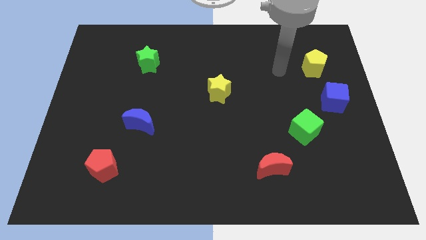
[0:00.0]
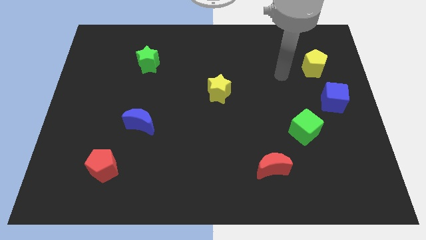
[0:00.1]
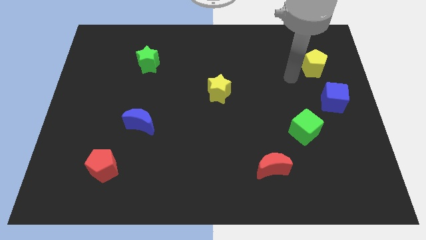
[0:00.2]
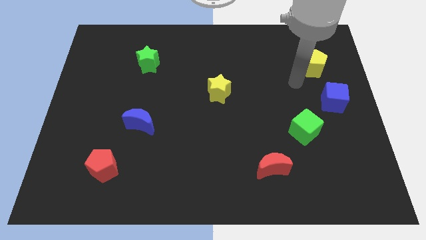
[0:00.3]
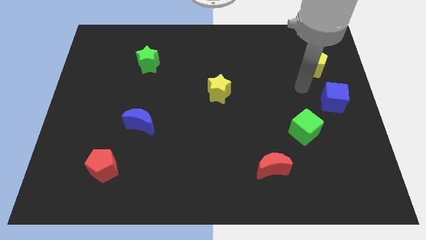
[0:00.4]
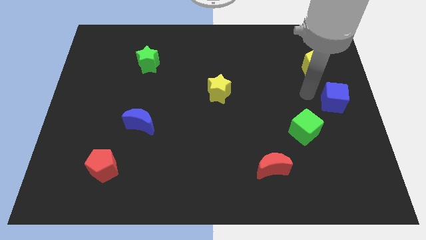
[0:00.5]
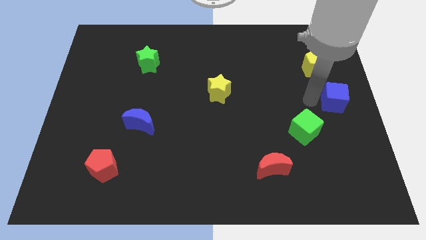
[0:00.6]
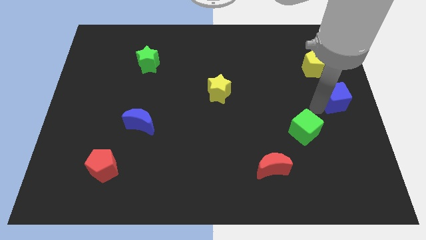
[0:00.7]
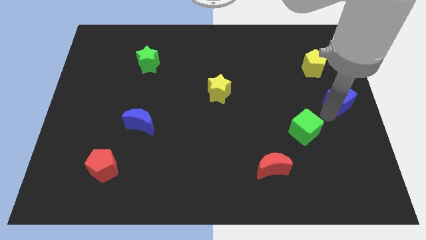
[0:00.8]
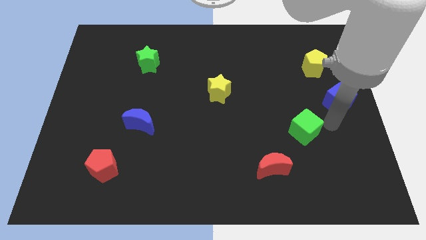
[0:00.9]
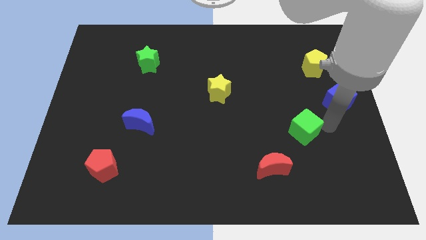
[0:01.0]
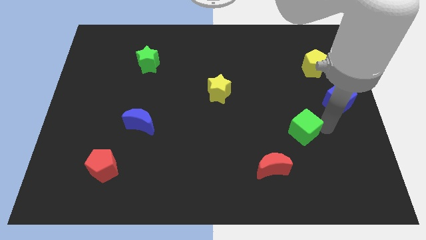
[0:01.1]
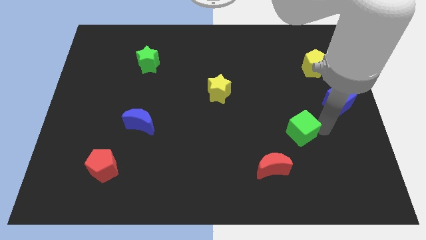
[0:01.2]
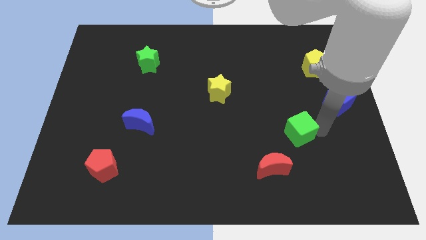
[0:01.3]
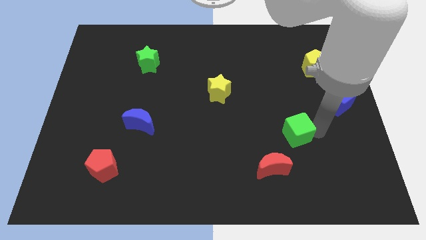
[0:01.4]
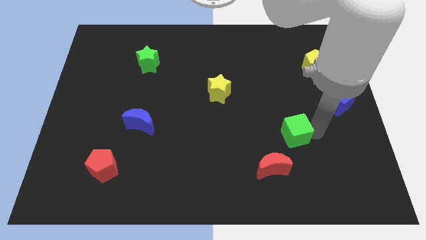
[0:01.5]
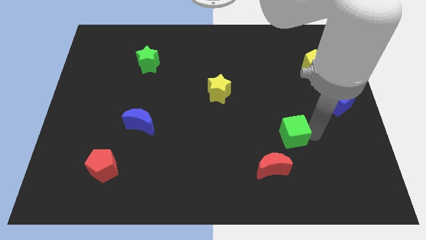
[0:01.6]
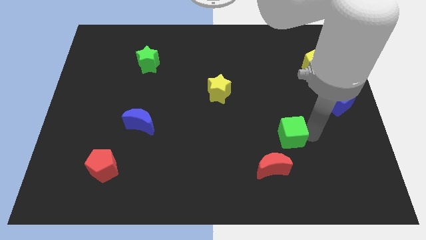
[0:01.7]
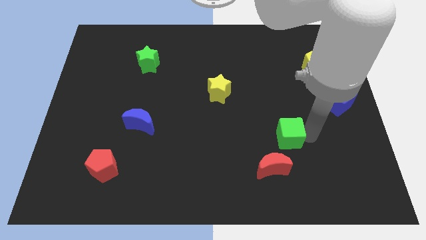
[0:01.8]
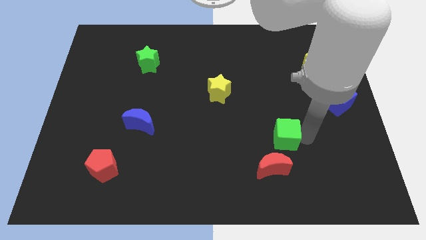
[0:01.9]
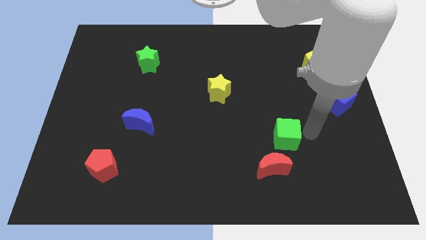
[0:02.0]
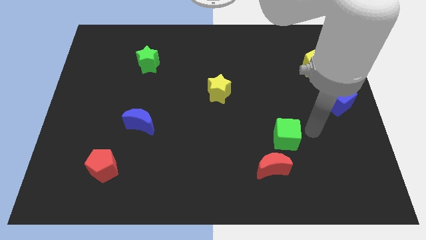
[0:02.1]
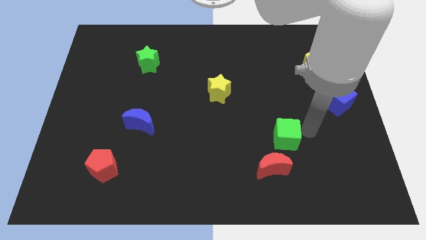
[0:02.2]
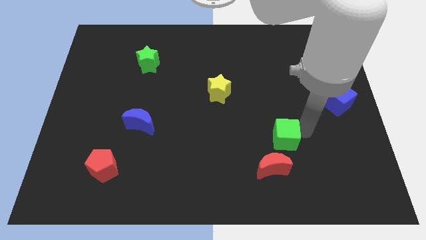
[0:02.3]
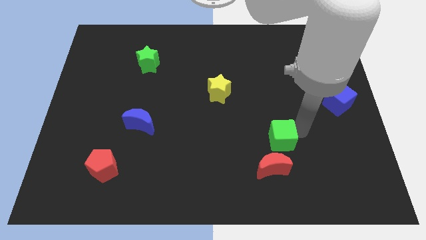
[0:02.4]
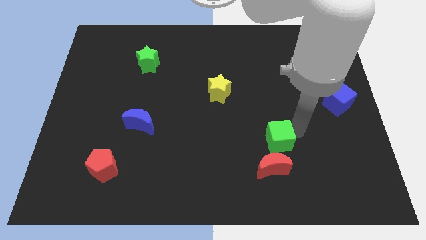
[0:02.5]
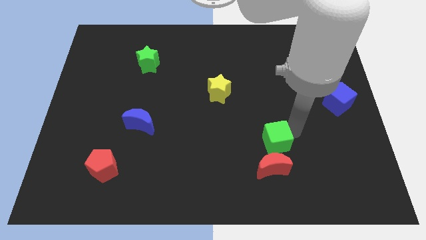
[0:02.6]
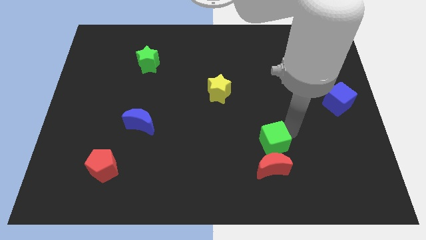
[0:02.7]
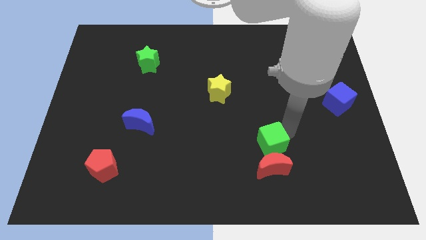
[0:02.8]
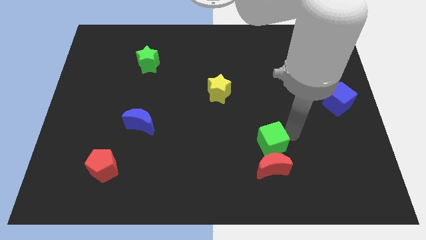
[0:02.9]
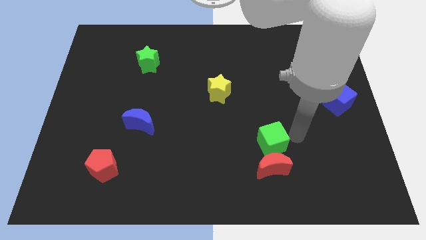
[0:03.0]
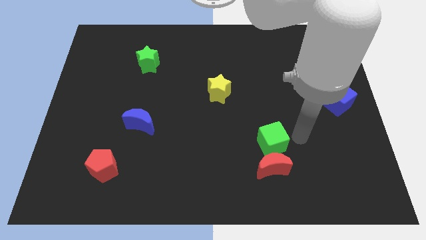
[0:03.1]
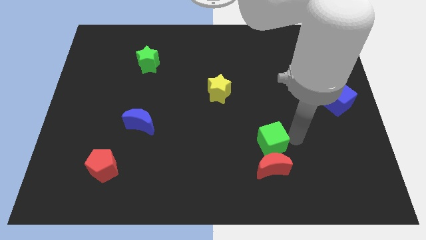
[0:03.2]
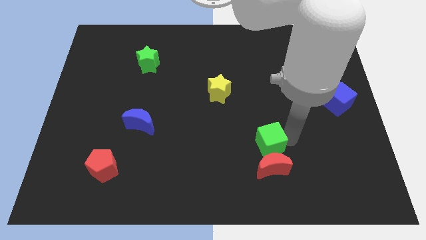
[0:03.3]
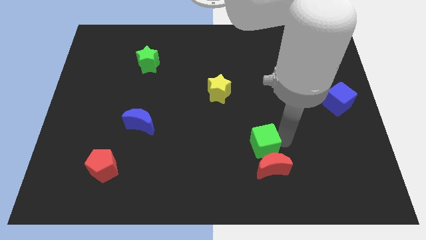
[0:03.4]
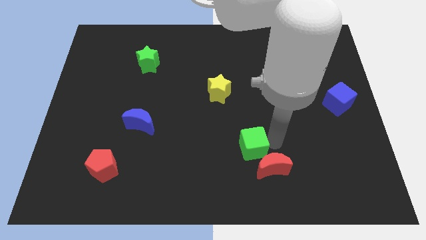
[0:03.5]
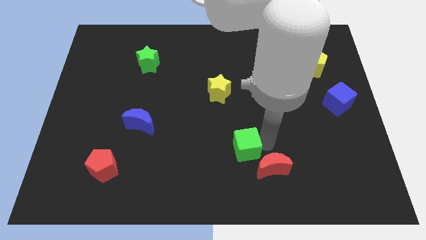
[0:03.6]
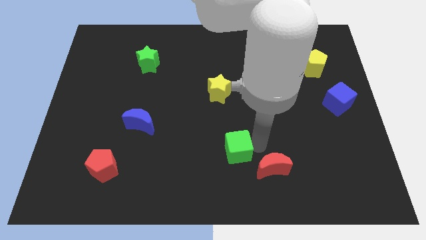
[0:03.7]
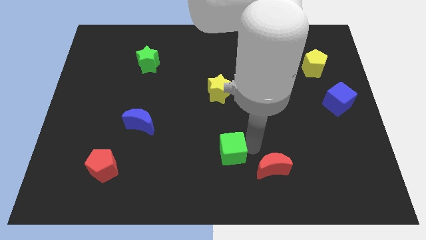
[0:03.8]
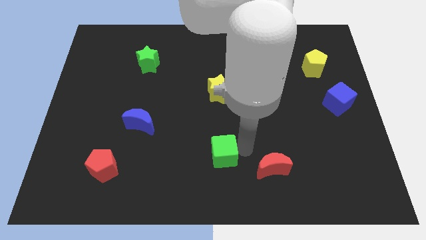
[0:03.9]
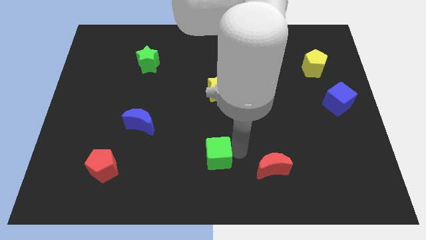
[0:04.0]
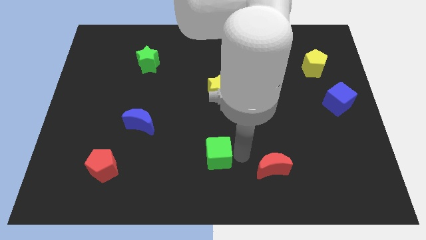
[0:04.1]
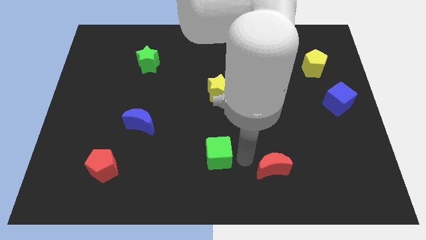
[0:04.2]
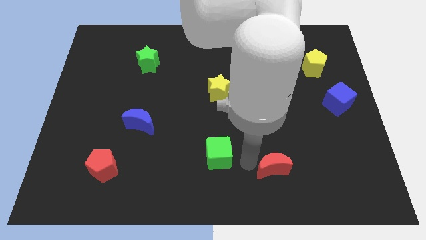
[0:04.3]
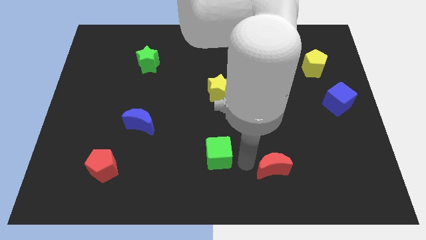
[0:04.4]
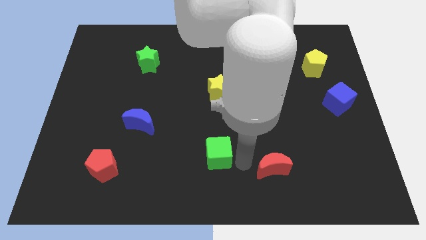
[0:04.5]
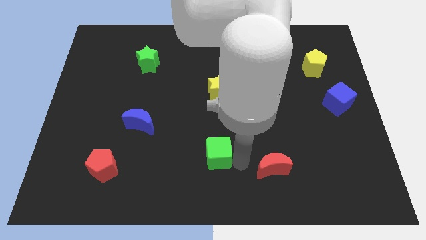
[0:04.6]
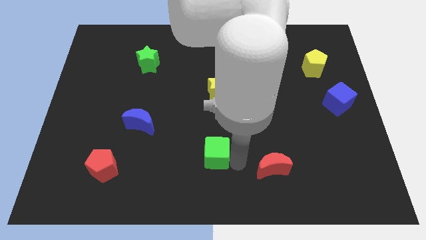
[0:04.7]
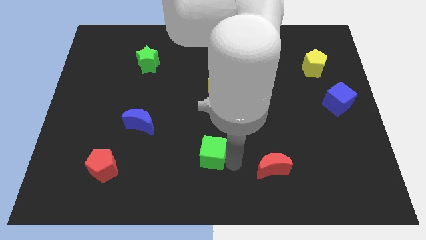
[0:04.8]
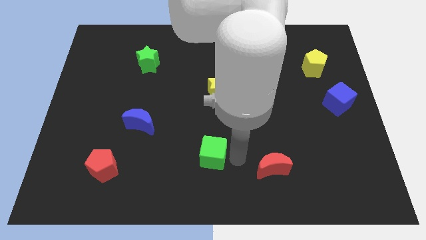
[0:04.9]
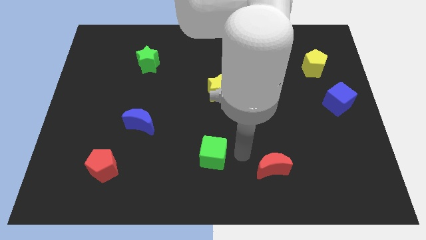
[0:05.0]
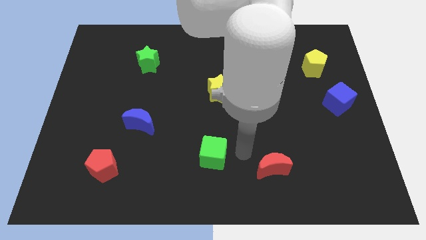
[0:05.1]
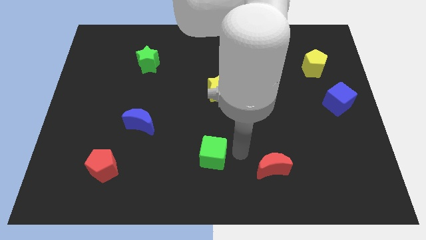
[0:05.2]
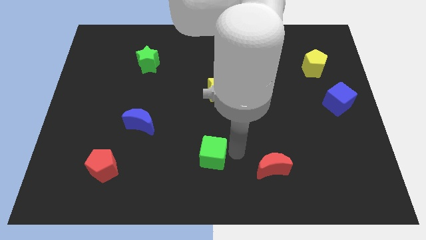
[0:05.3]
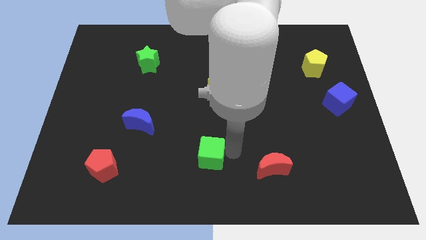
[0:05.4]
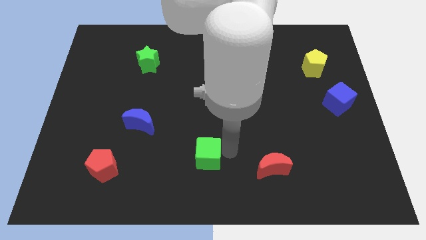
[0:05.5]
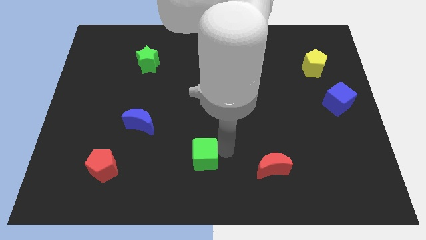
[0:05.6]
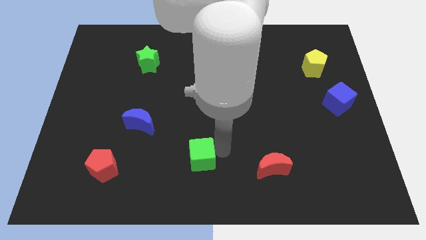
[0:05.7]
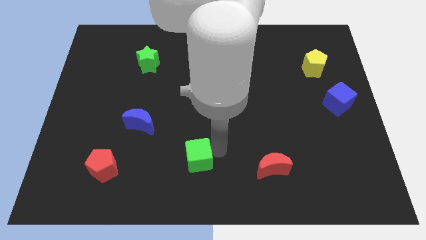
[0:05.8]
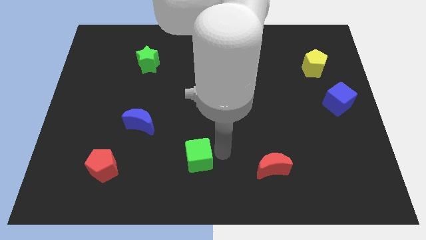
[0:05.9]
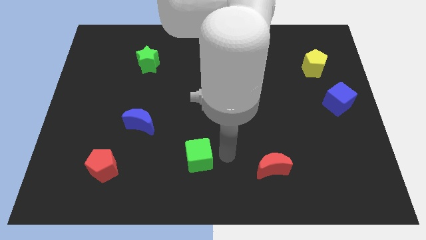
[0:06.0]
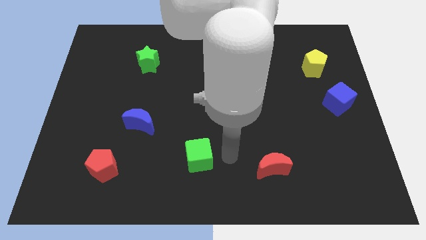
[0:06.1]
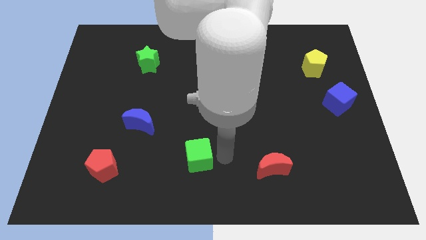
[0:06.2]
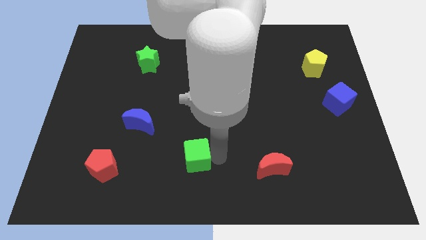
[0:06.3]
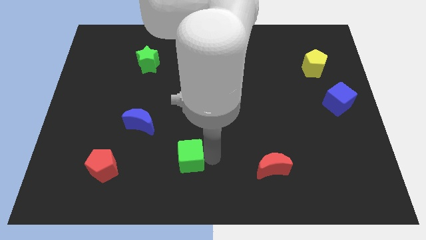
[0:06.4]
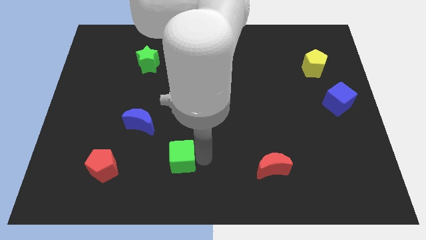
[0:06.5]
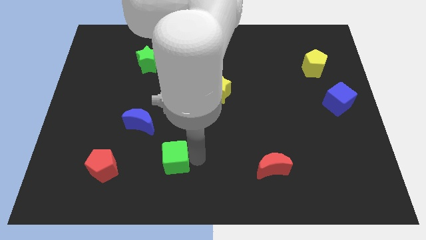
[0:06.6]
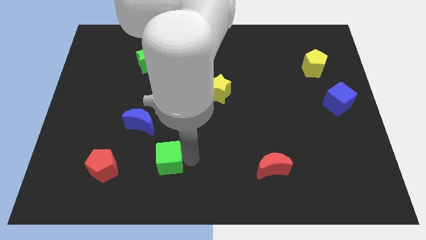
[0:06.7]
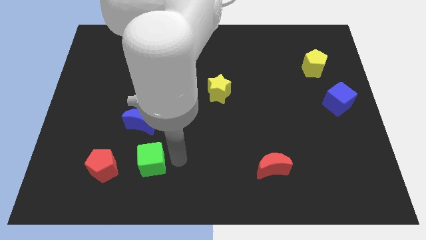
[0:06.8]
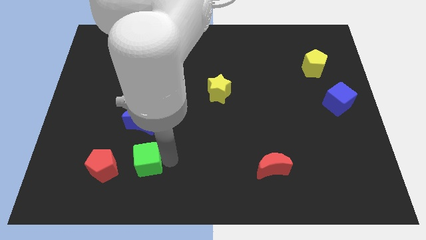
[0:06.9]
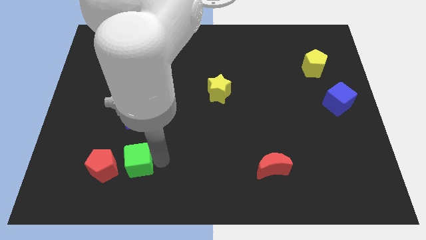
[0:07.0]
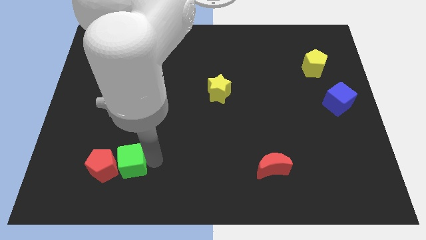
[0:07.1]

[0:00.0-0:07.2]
slide the green cube to the red pentagon
